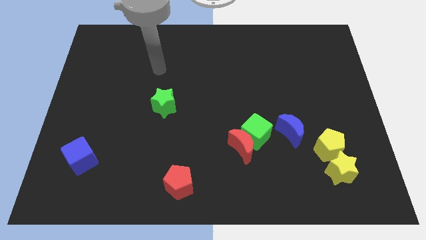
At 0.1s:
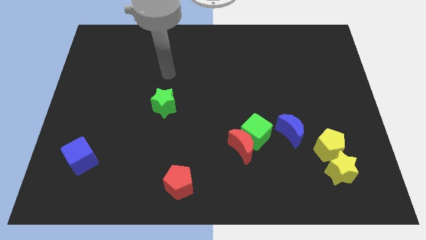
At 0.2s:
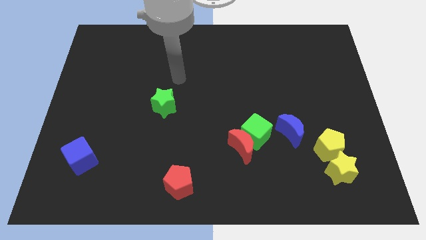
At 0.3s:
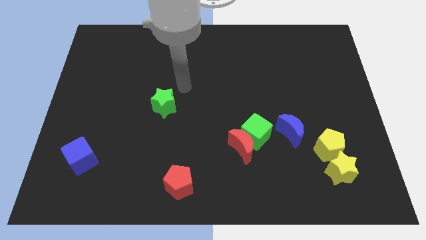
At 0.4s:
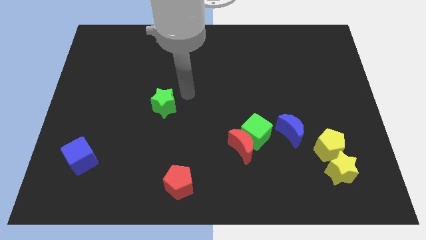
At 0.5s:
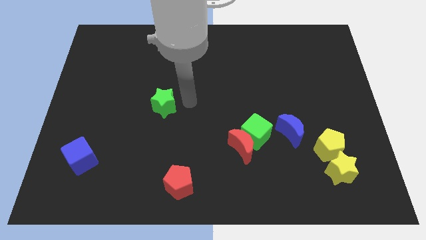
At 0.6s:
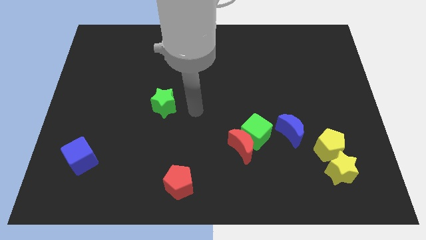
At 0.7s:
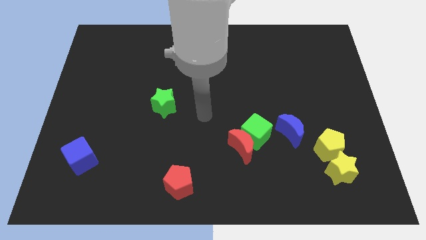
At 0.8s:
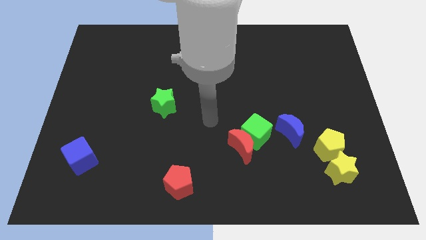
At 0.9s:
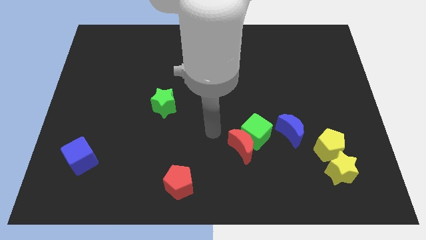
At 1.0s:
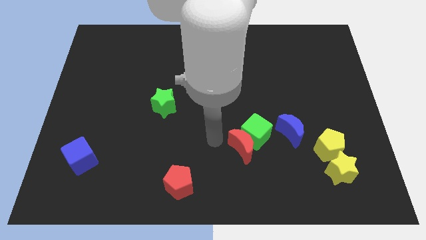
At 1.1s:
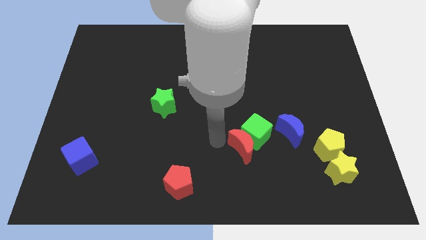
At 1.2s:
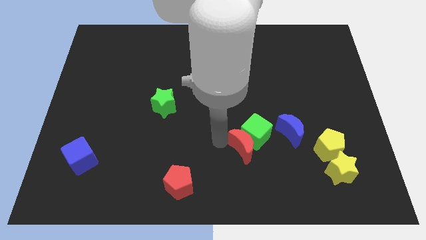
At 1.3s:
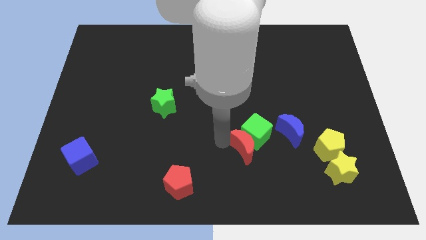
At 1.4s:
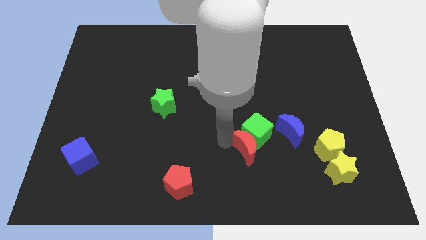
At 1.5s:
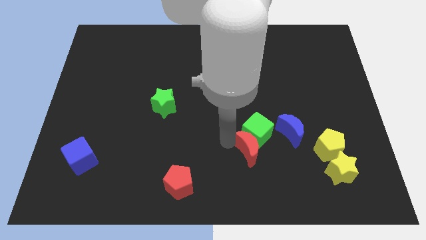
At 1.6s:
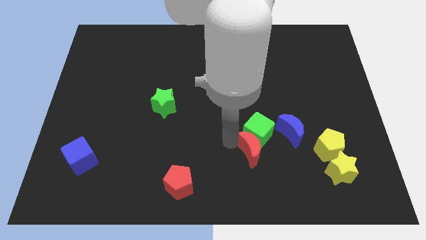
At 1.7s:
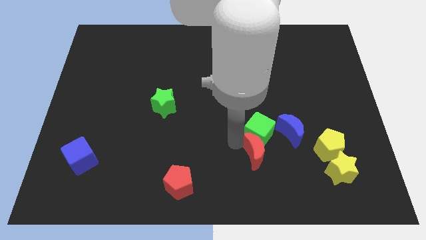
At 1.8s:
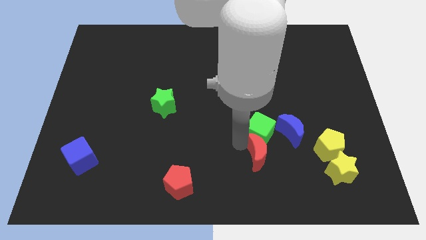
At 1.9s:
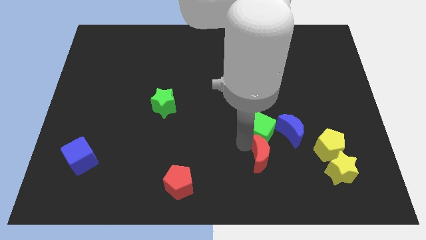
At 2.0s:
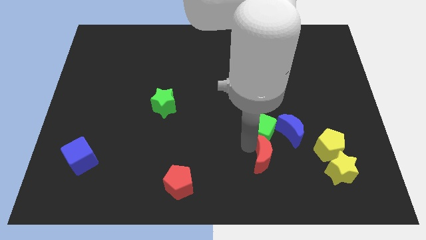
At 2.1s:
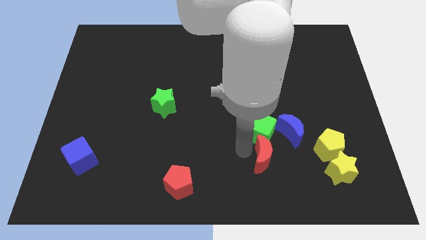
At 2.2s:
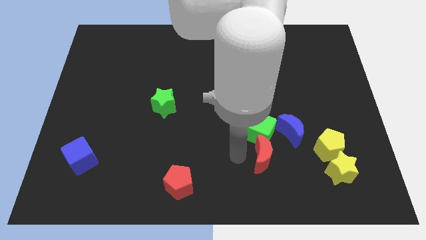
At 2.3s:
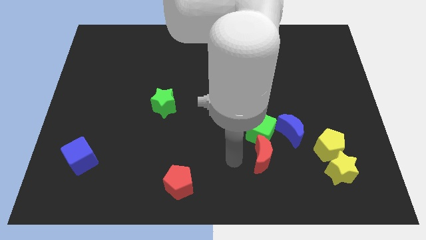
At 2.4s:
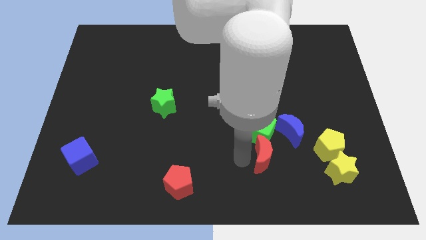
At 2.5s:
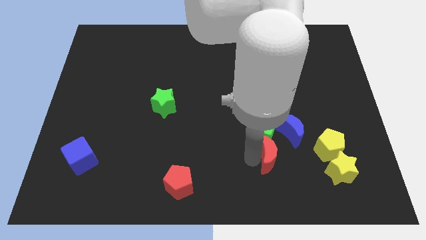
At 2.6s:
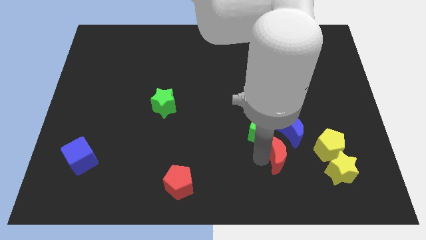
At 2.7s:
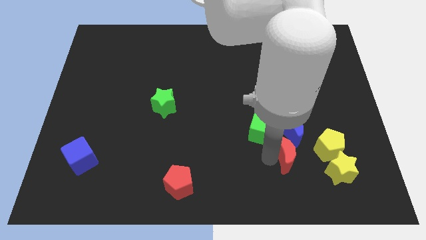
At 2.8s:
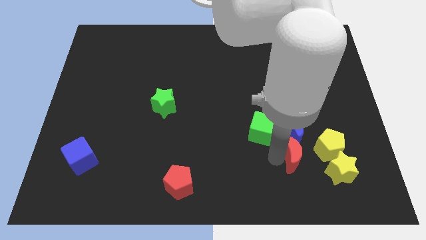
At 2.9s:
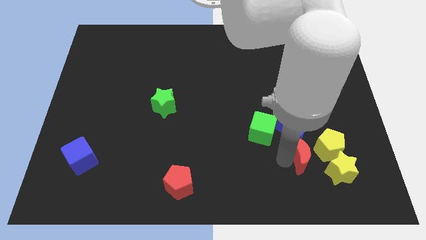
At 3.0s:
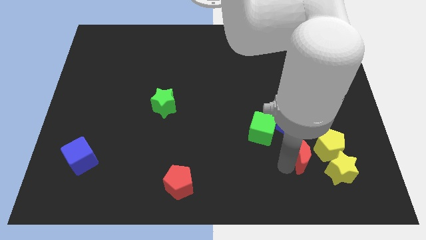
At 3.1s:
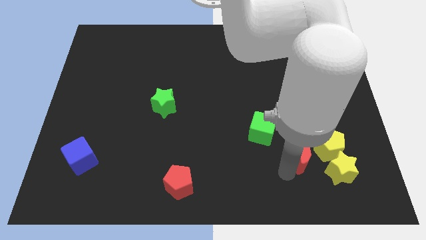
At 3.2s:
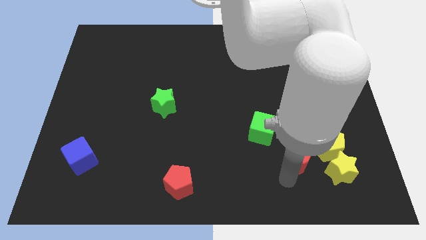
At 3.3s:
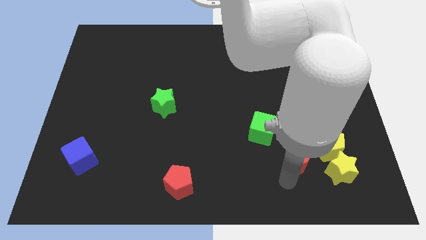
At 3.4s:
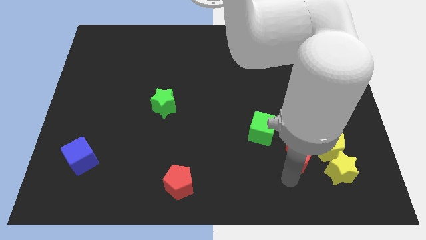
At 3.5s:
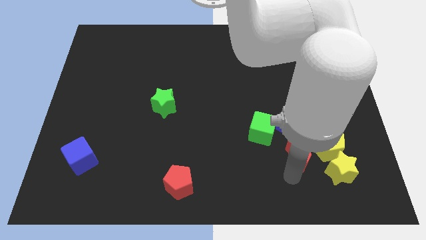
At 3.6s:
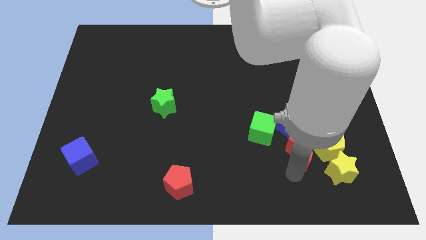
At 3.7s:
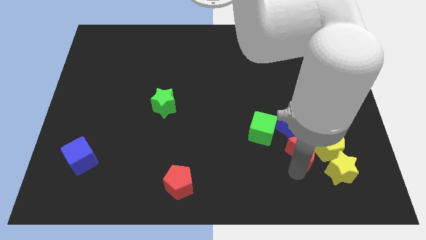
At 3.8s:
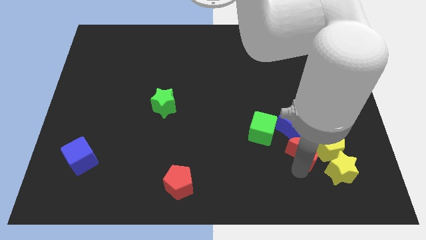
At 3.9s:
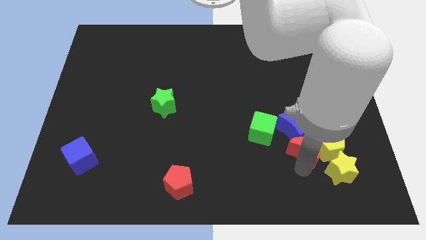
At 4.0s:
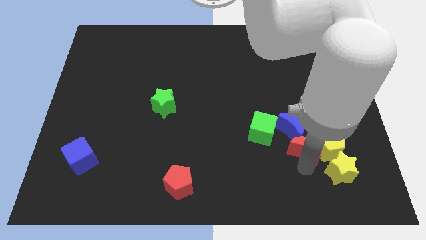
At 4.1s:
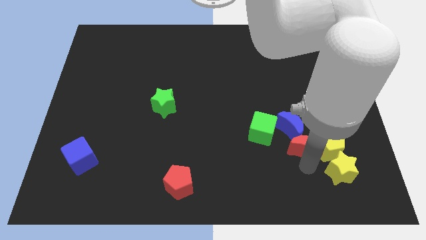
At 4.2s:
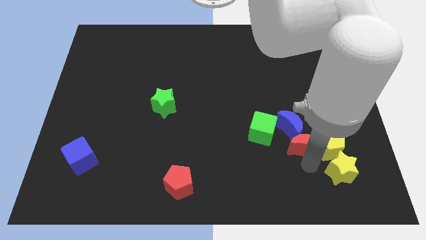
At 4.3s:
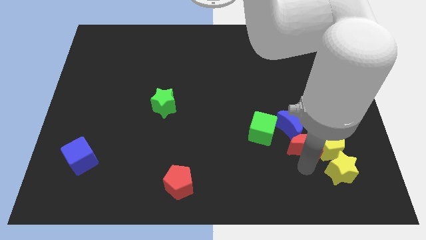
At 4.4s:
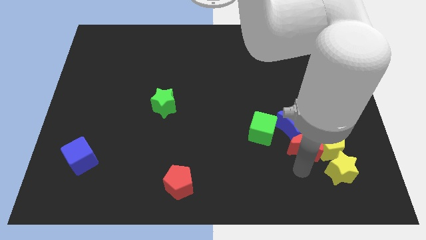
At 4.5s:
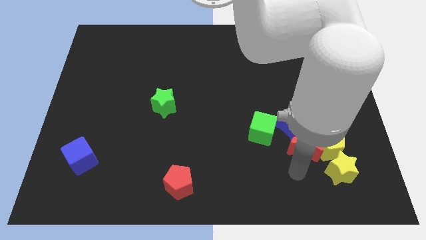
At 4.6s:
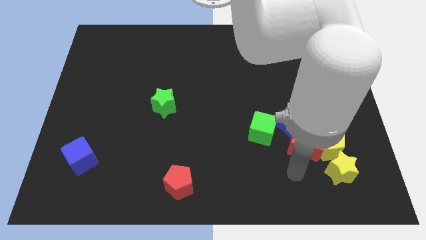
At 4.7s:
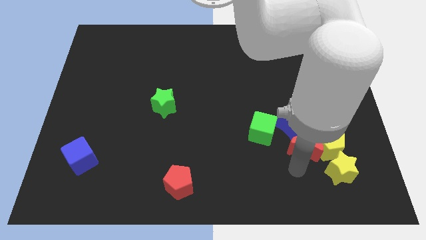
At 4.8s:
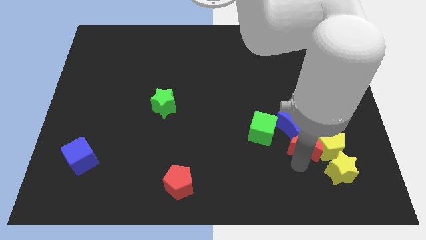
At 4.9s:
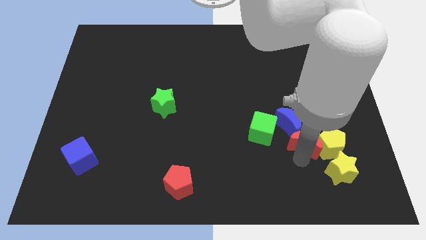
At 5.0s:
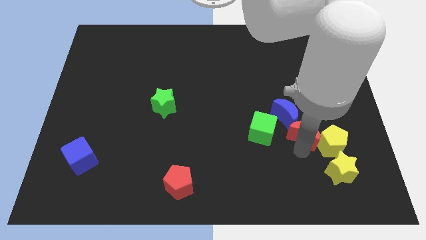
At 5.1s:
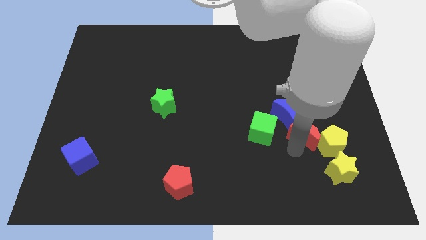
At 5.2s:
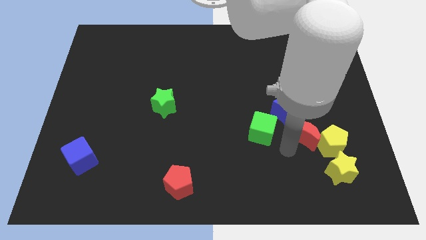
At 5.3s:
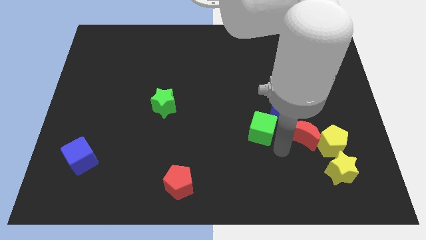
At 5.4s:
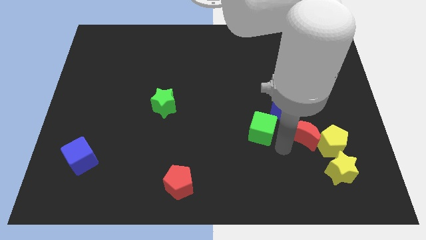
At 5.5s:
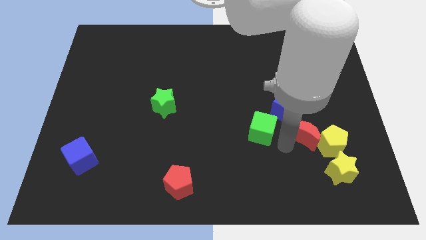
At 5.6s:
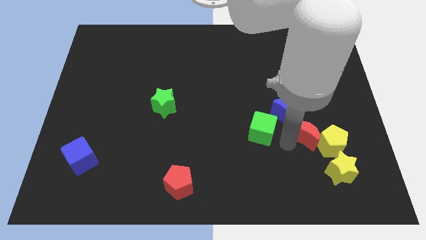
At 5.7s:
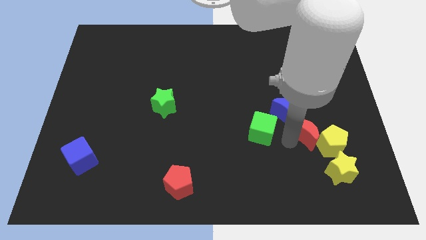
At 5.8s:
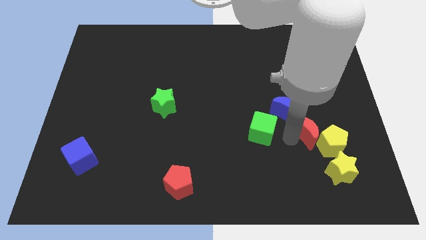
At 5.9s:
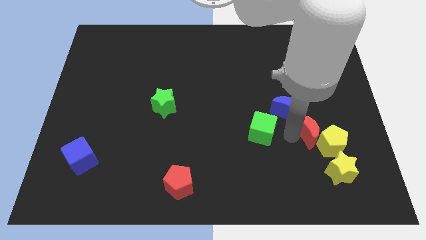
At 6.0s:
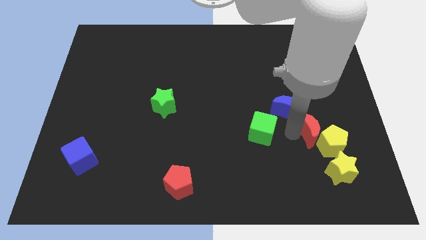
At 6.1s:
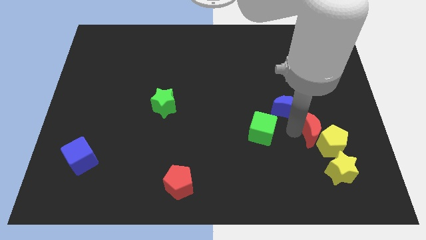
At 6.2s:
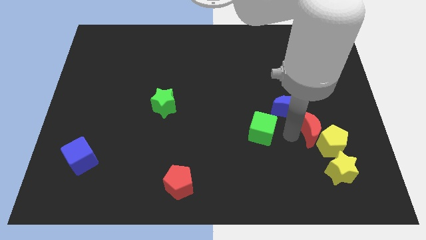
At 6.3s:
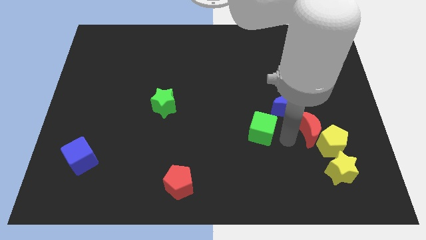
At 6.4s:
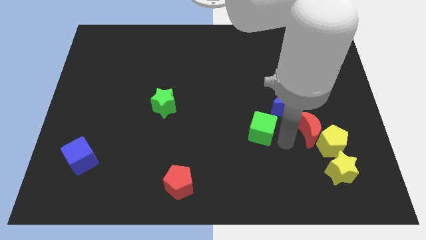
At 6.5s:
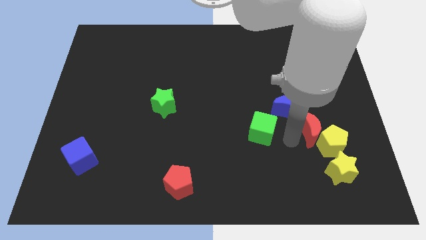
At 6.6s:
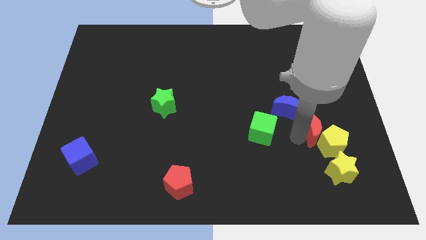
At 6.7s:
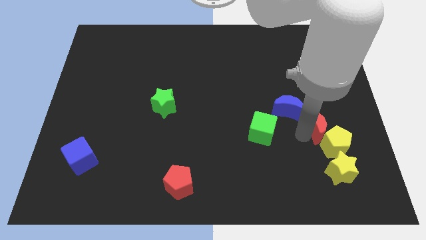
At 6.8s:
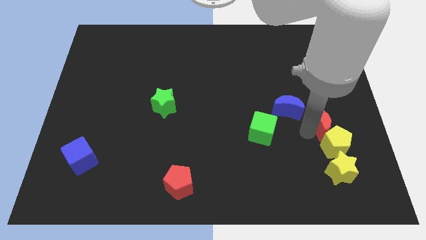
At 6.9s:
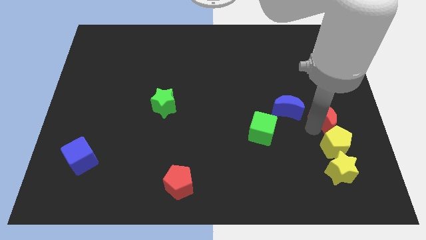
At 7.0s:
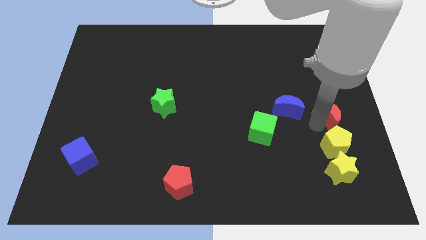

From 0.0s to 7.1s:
put the red moon to the right side
